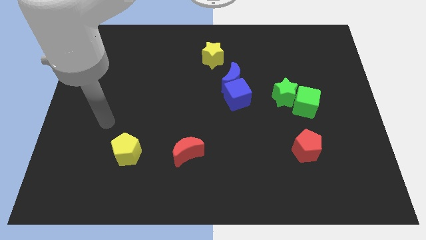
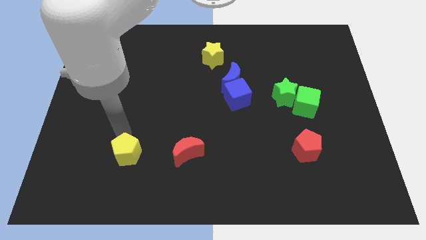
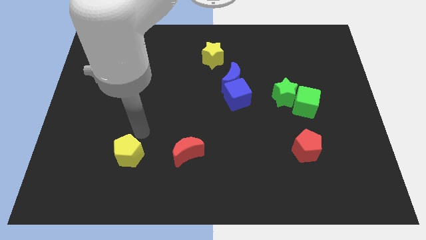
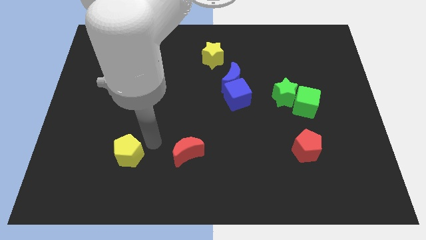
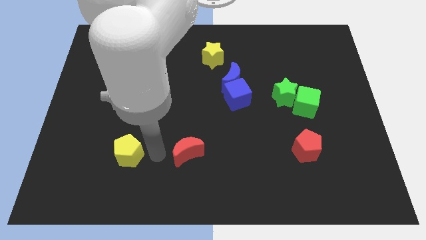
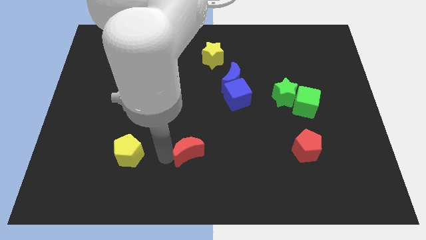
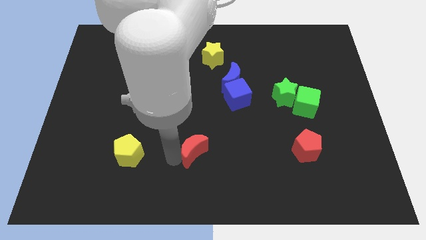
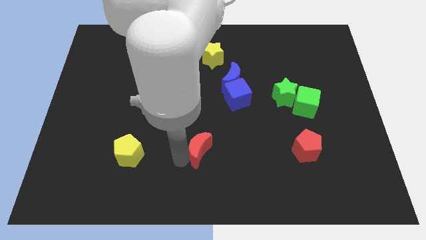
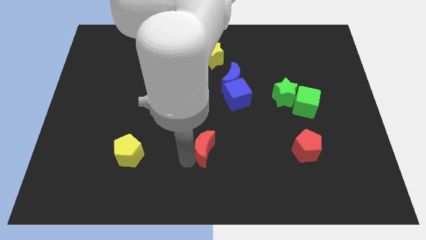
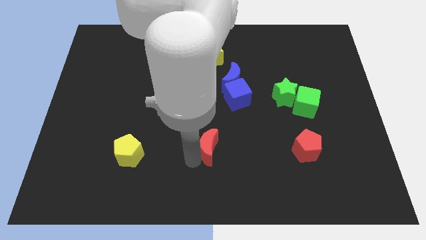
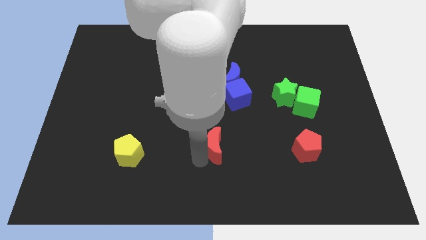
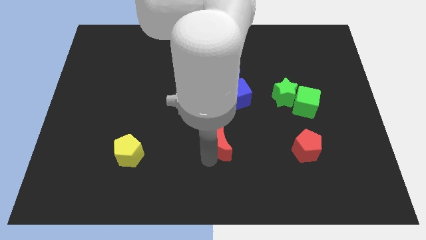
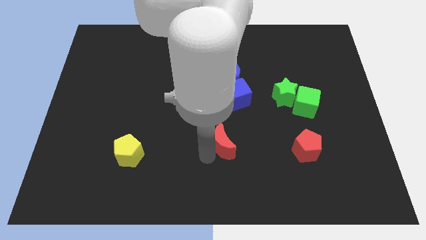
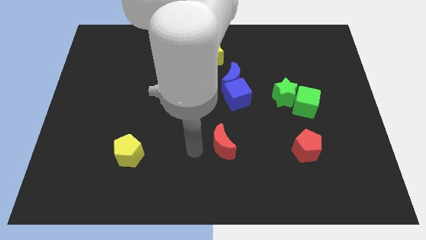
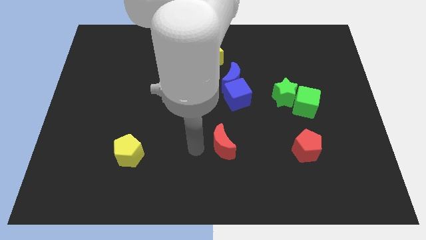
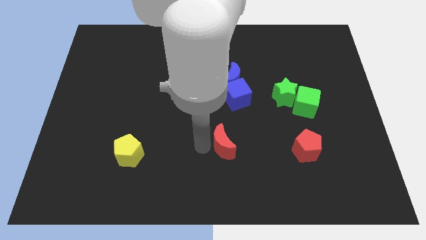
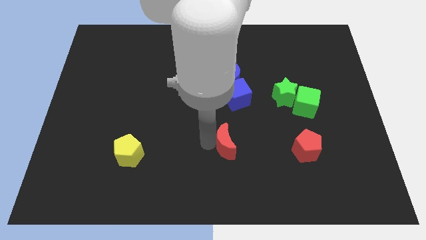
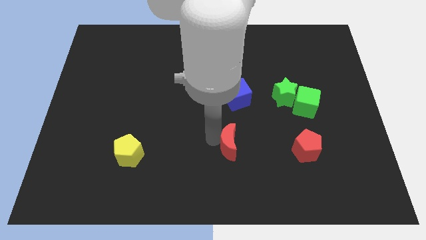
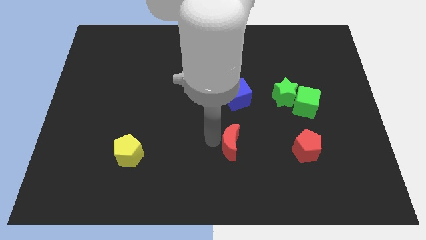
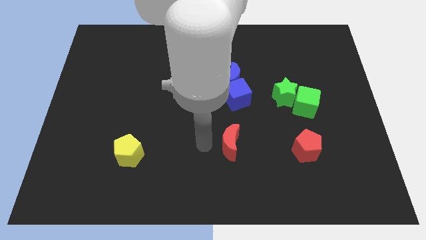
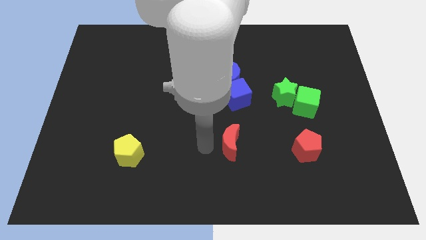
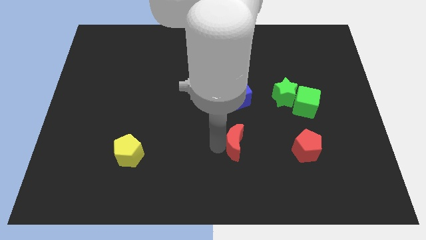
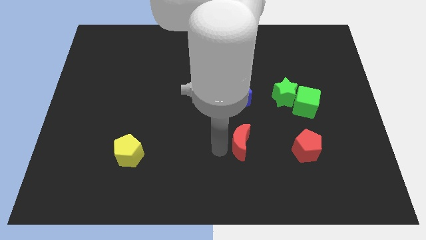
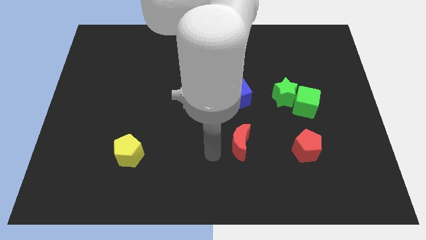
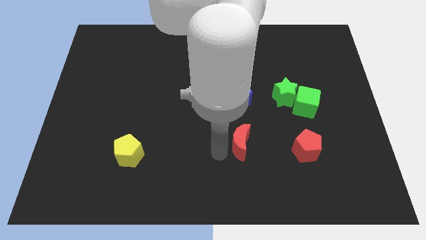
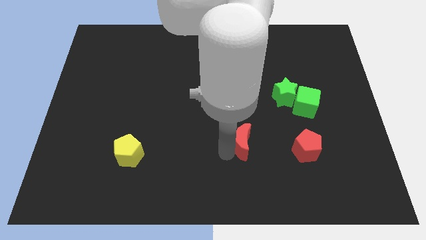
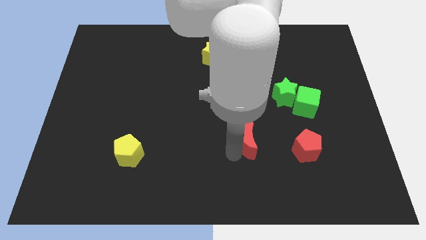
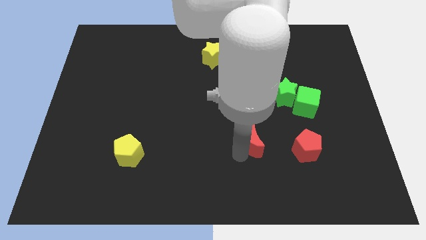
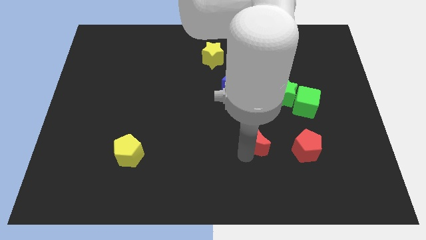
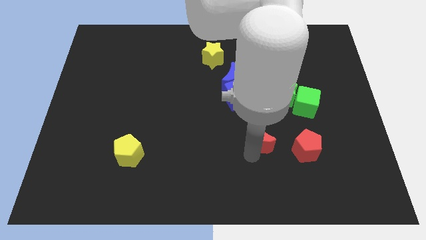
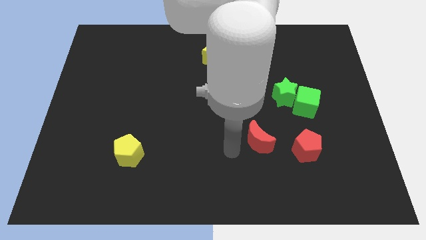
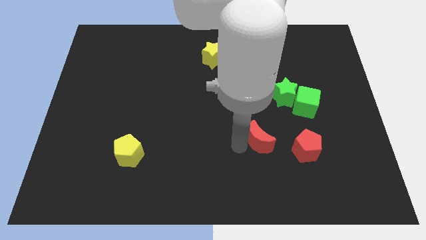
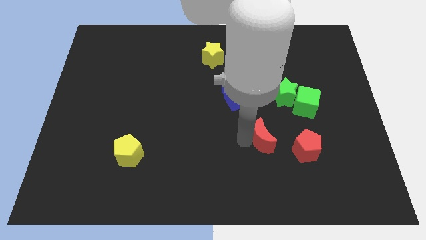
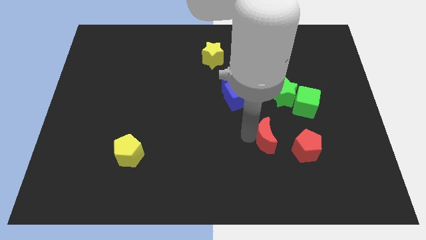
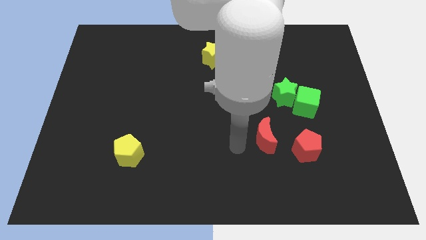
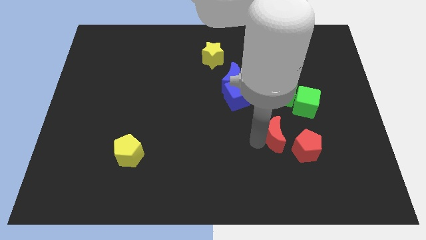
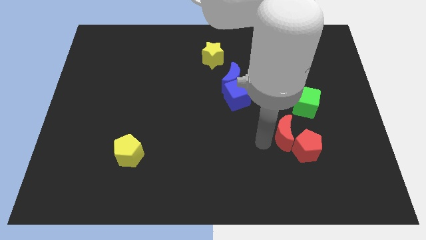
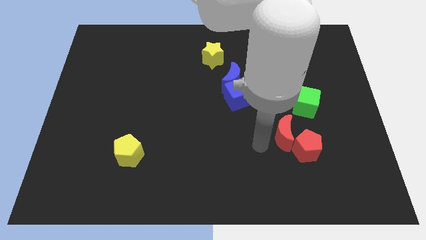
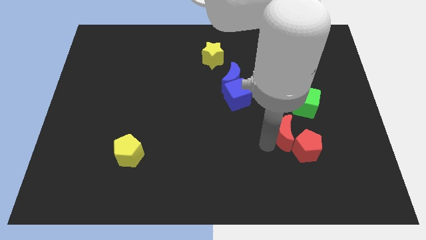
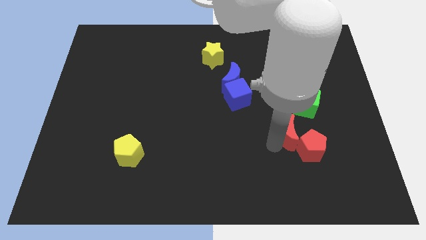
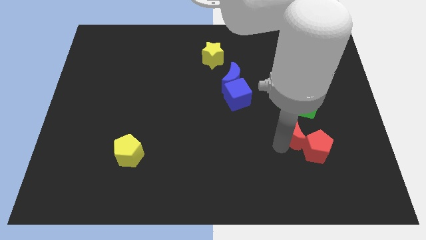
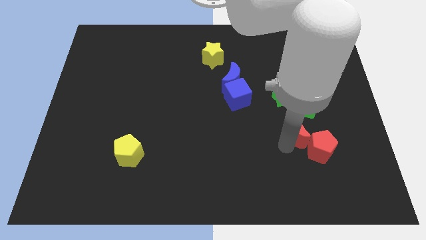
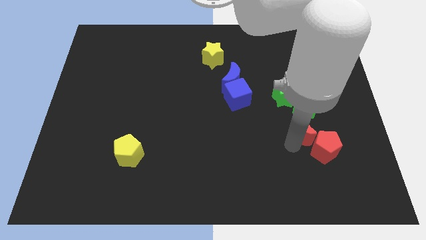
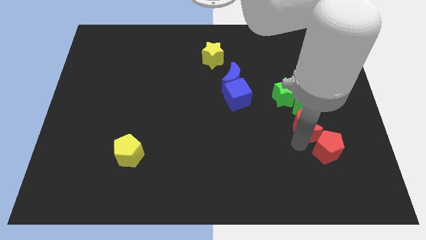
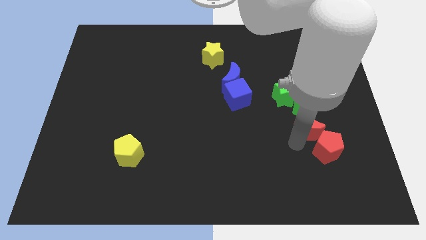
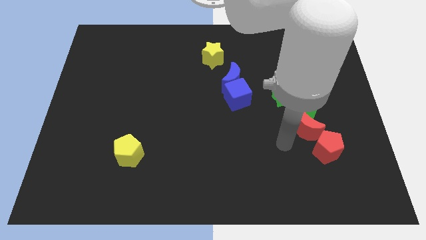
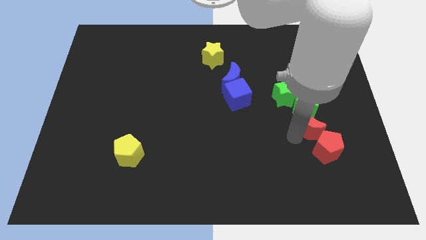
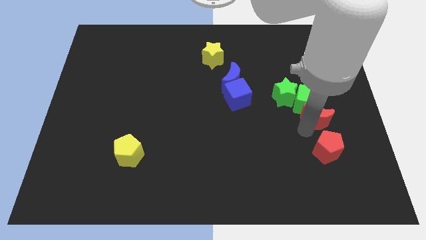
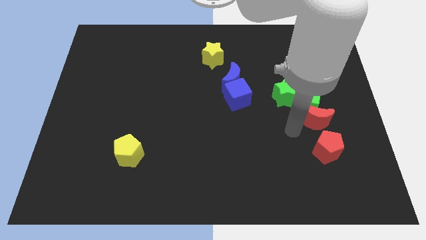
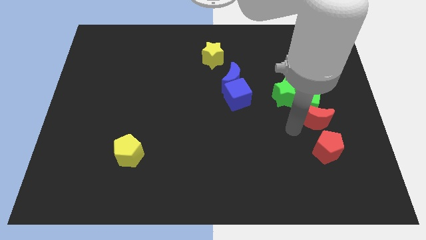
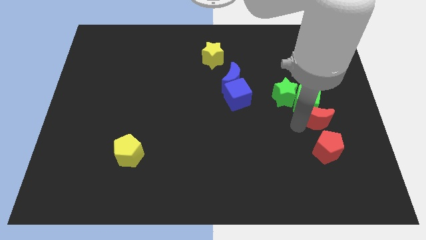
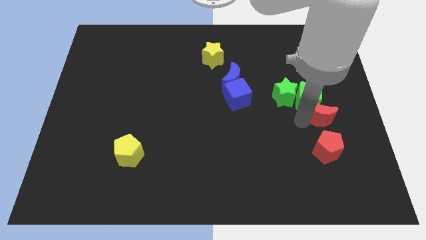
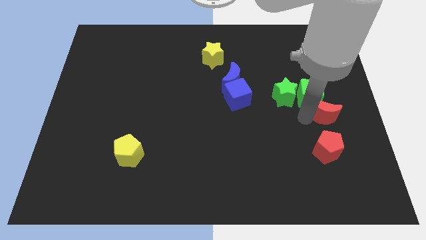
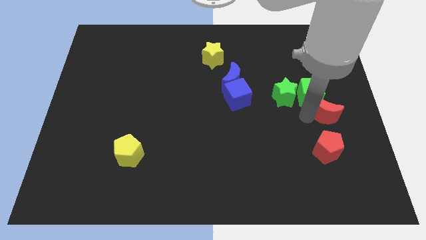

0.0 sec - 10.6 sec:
slide the red moon to the right side
